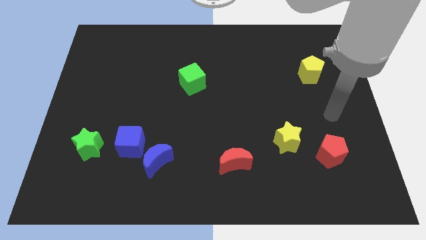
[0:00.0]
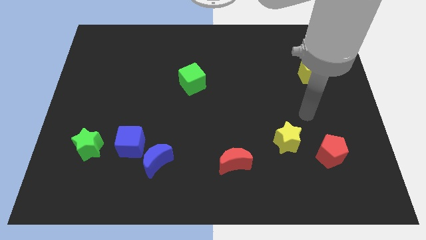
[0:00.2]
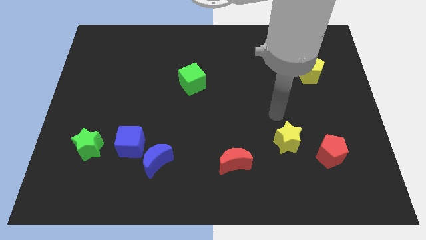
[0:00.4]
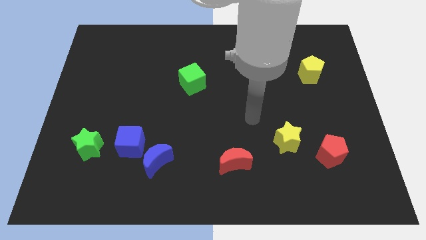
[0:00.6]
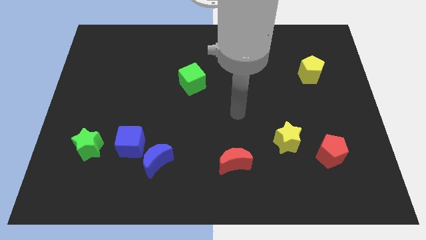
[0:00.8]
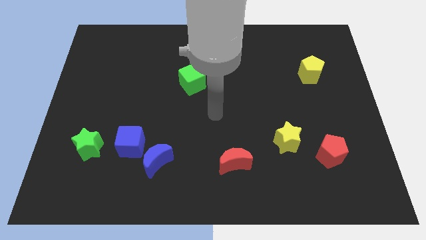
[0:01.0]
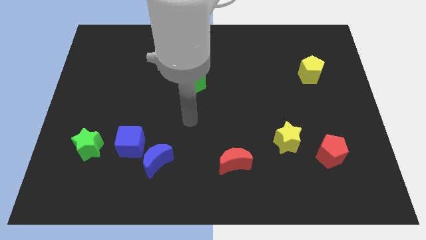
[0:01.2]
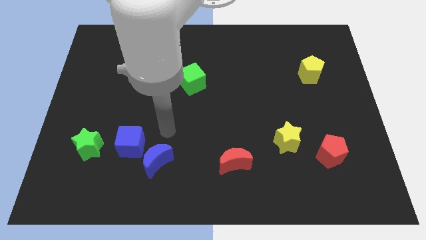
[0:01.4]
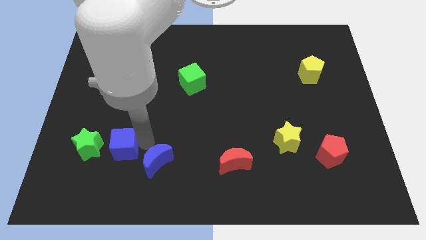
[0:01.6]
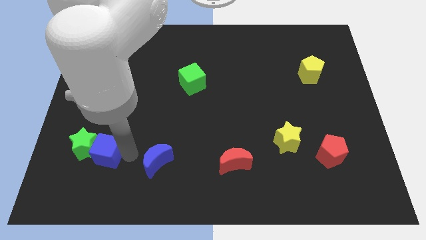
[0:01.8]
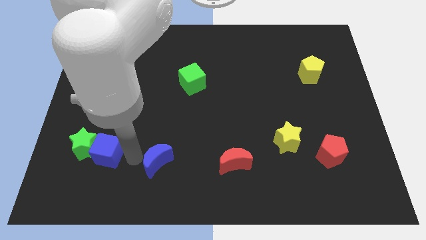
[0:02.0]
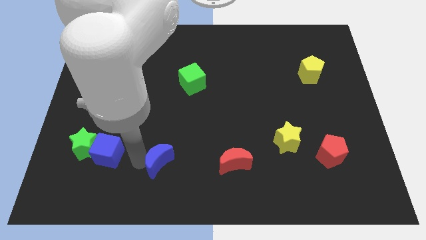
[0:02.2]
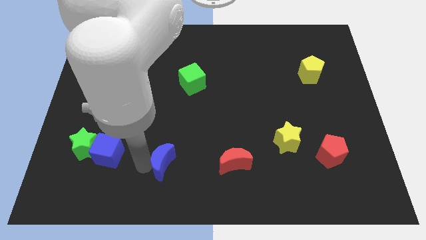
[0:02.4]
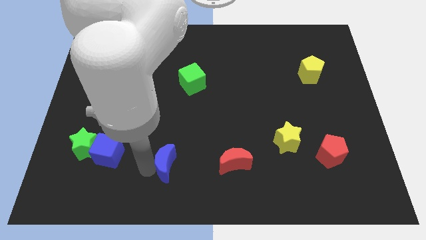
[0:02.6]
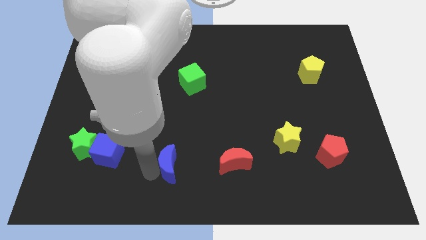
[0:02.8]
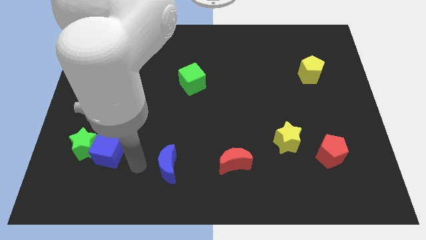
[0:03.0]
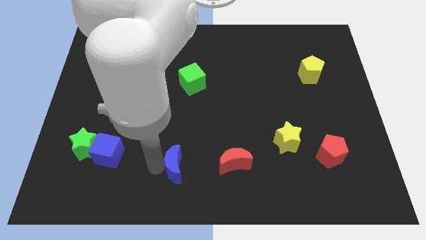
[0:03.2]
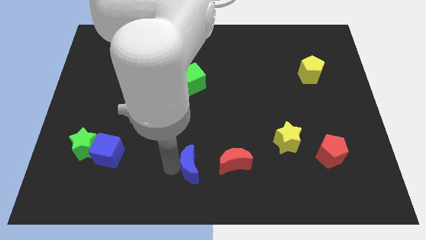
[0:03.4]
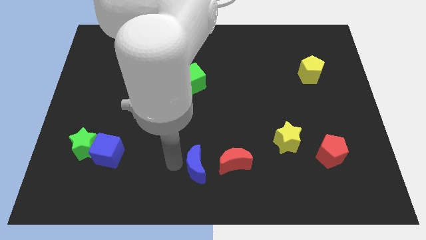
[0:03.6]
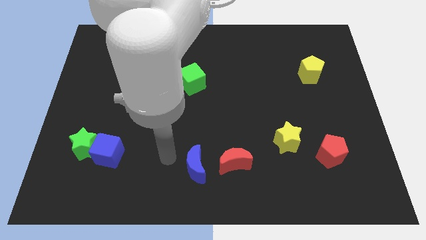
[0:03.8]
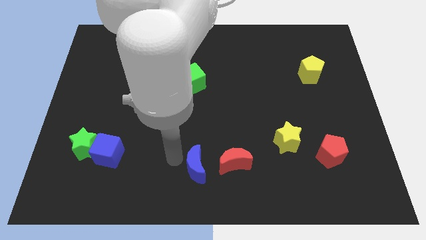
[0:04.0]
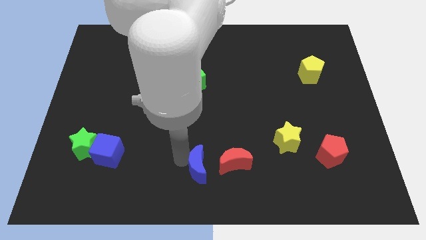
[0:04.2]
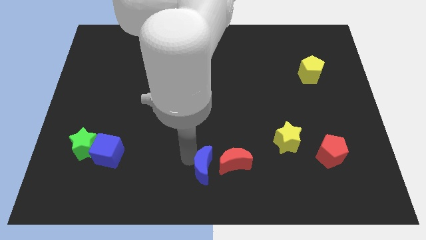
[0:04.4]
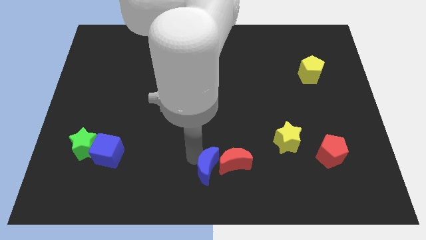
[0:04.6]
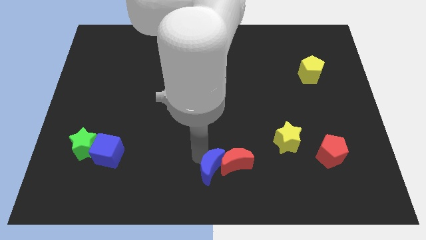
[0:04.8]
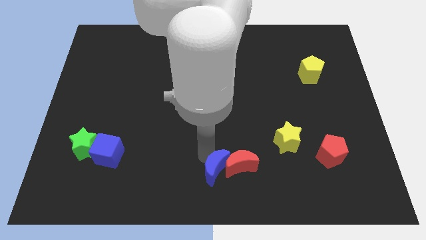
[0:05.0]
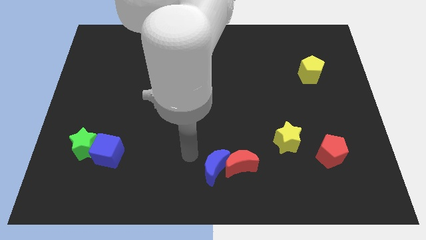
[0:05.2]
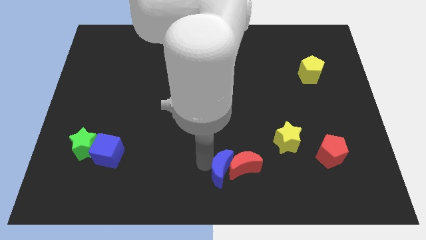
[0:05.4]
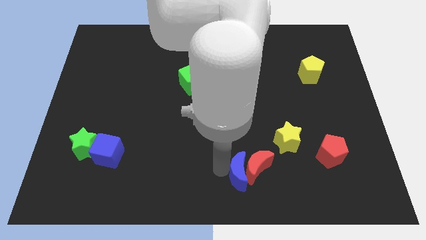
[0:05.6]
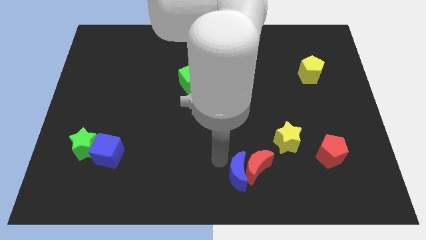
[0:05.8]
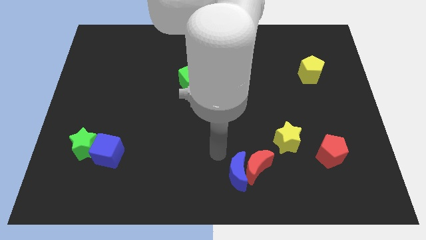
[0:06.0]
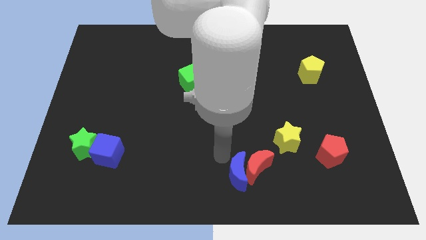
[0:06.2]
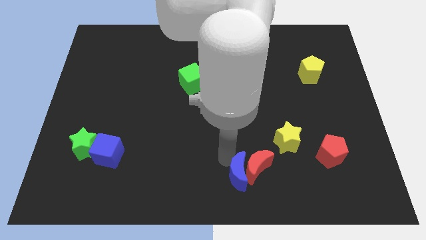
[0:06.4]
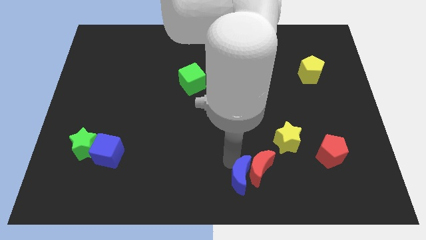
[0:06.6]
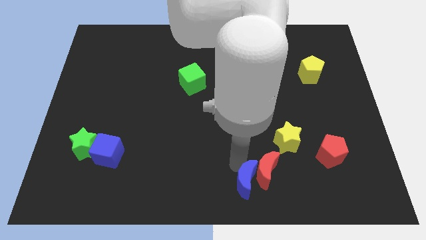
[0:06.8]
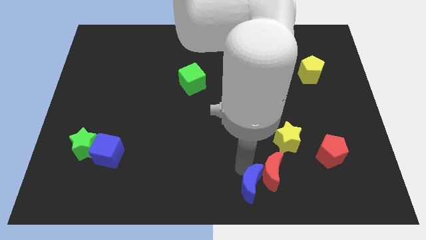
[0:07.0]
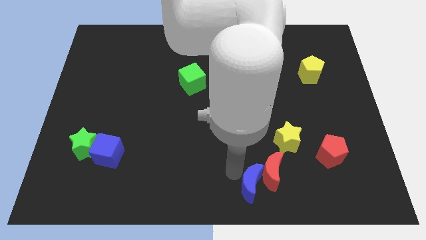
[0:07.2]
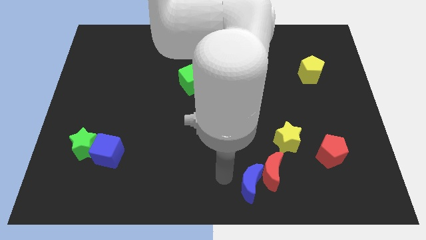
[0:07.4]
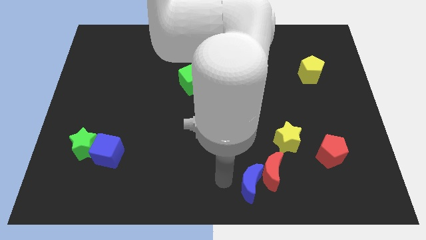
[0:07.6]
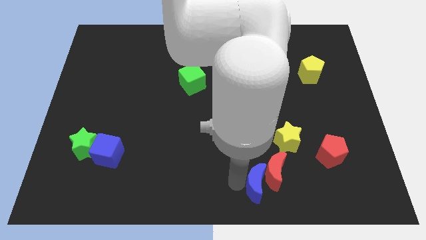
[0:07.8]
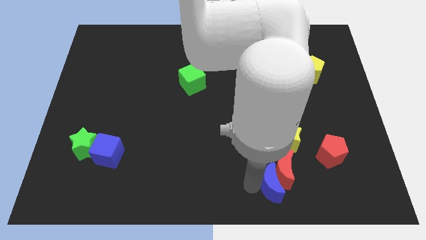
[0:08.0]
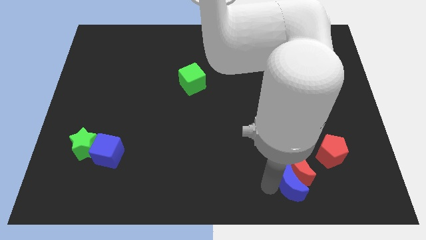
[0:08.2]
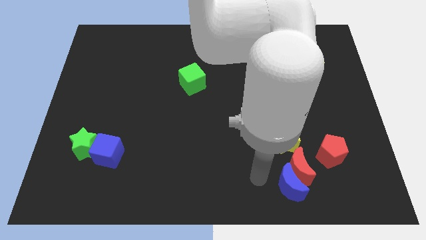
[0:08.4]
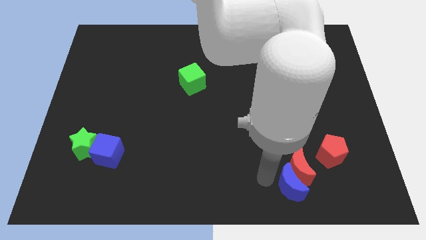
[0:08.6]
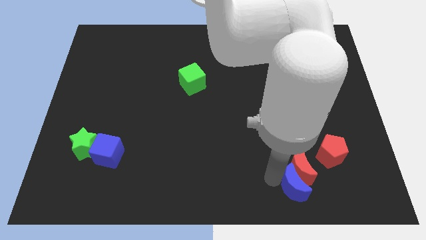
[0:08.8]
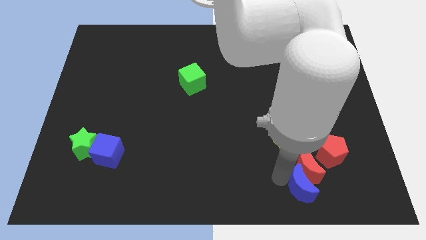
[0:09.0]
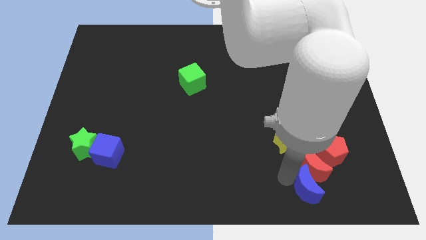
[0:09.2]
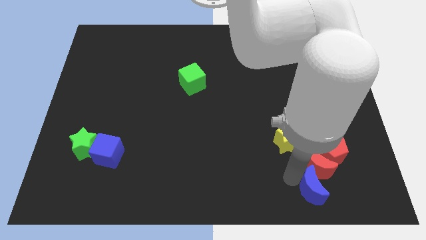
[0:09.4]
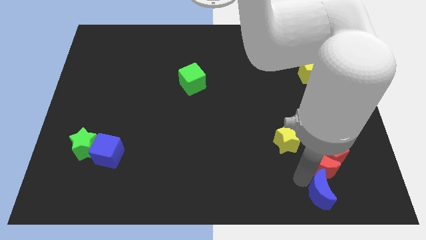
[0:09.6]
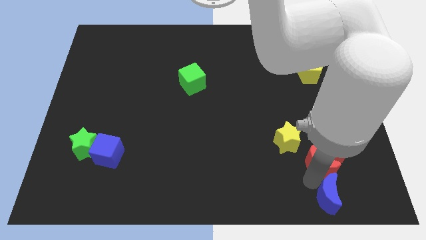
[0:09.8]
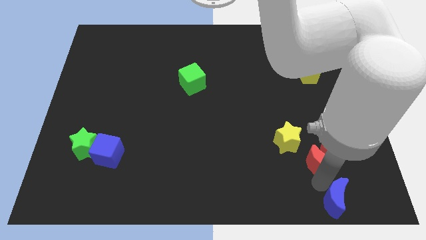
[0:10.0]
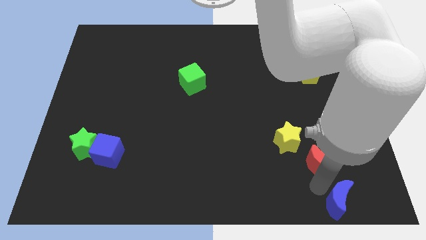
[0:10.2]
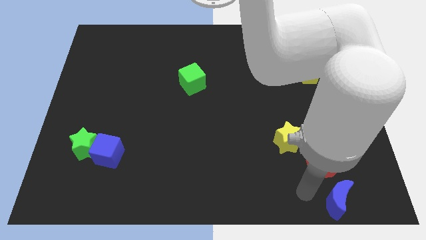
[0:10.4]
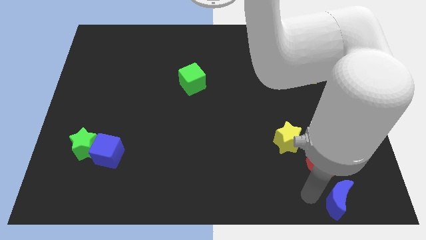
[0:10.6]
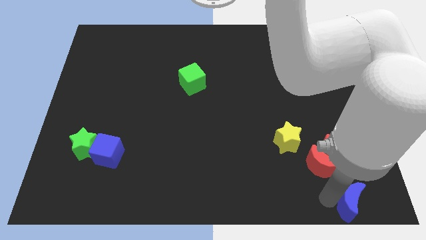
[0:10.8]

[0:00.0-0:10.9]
slide the blue moon to the bottom right corner

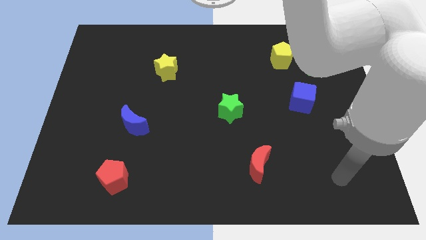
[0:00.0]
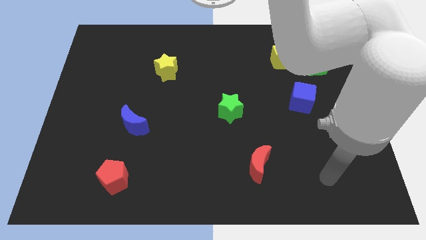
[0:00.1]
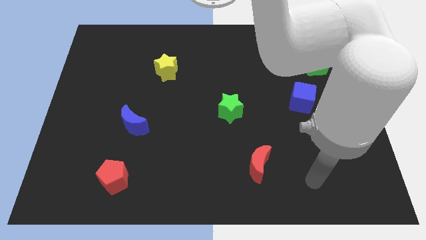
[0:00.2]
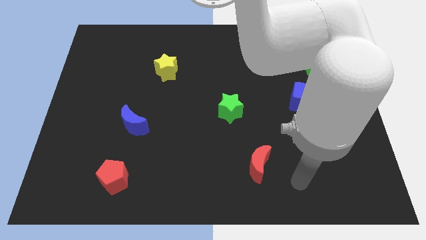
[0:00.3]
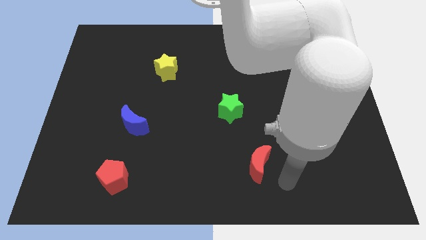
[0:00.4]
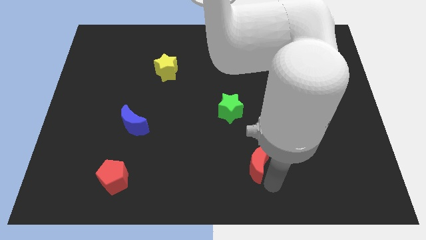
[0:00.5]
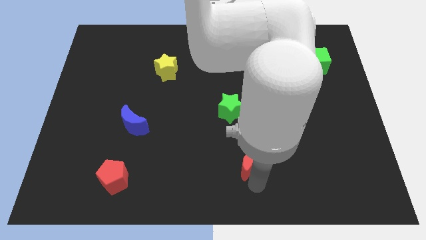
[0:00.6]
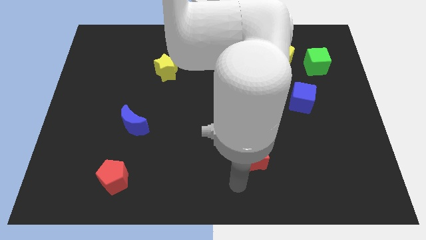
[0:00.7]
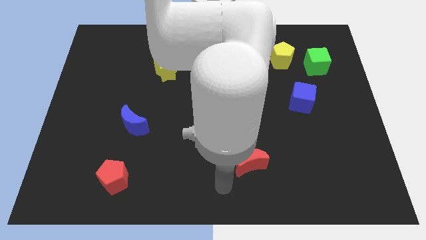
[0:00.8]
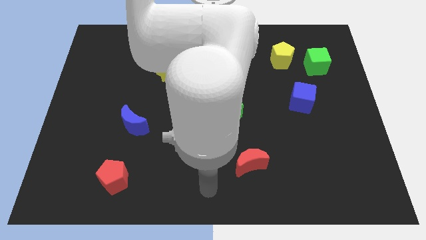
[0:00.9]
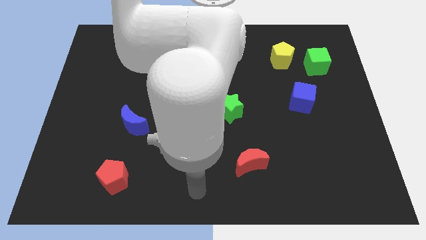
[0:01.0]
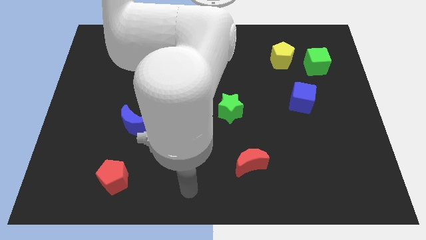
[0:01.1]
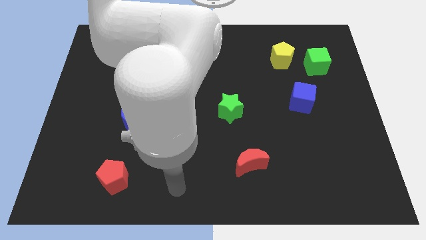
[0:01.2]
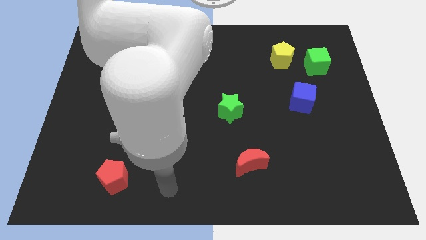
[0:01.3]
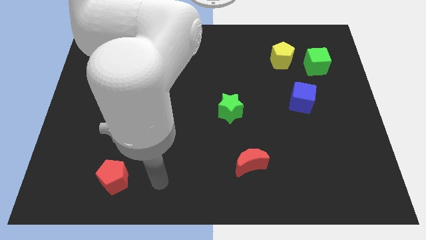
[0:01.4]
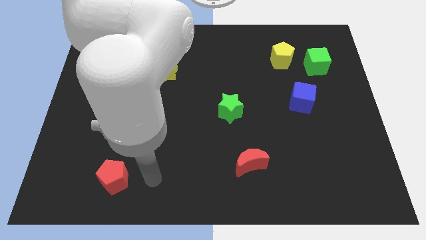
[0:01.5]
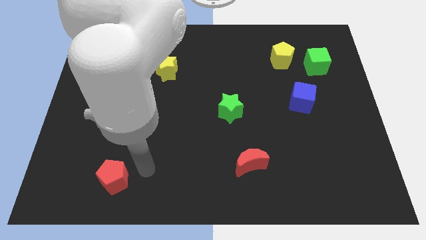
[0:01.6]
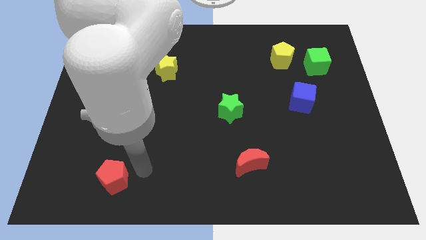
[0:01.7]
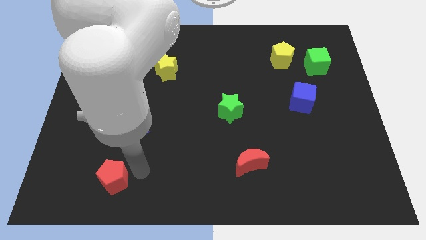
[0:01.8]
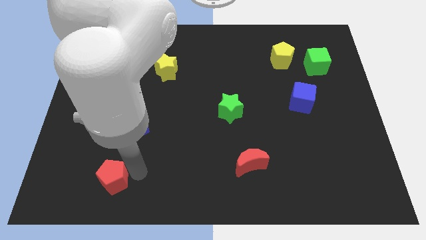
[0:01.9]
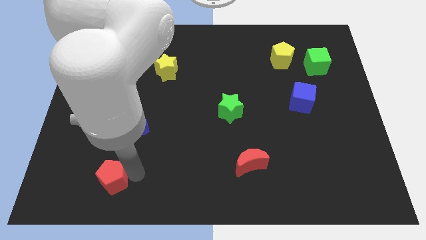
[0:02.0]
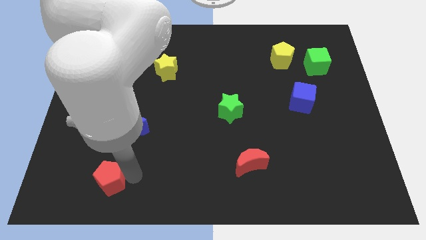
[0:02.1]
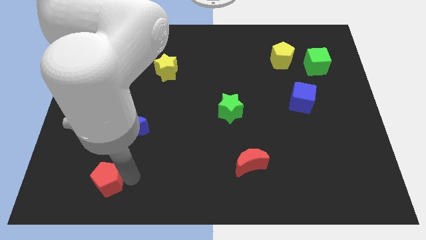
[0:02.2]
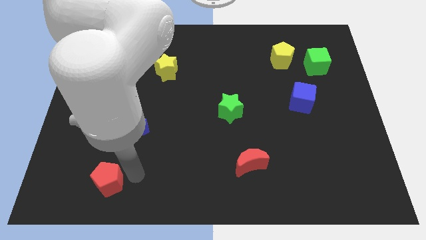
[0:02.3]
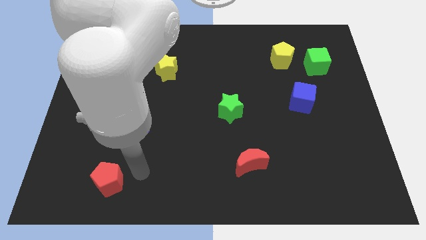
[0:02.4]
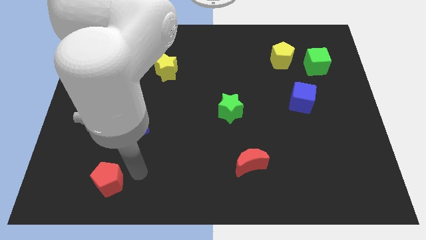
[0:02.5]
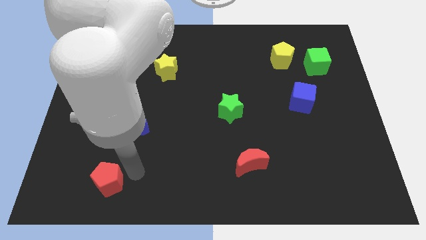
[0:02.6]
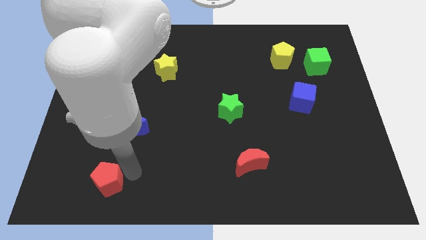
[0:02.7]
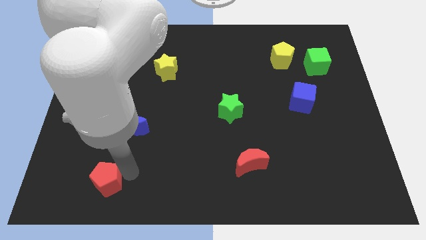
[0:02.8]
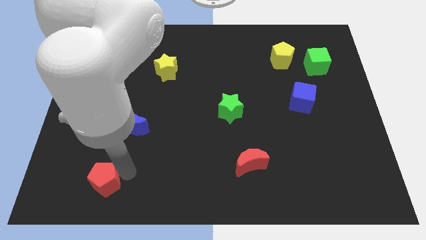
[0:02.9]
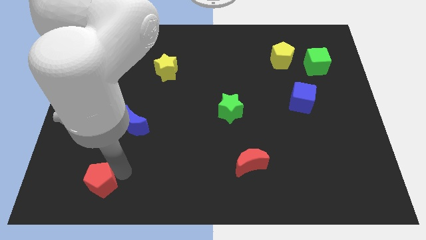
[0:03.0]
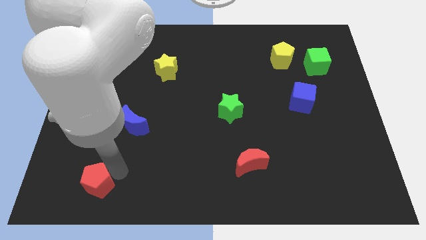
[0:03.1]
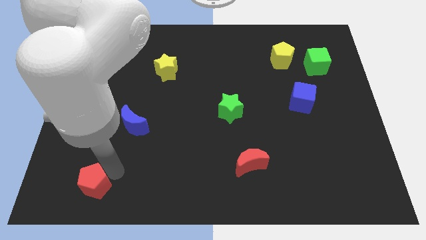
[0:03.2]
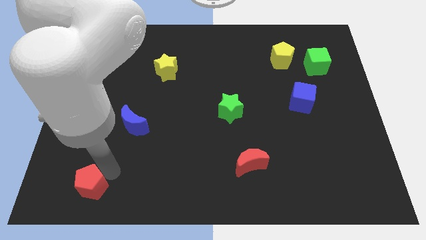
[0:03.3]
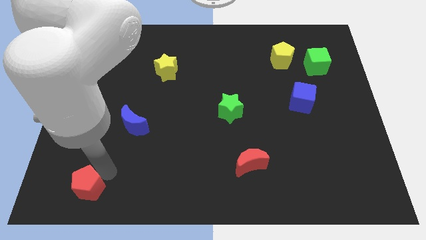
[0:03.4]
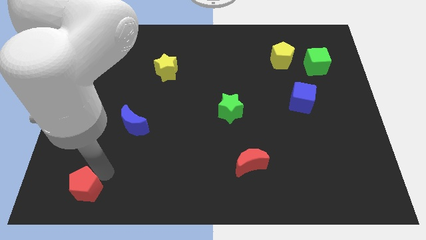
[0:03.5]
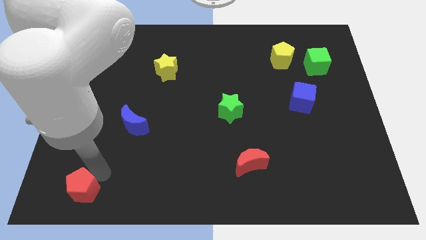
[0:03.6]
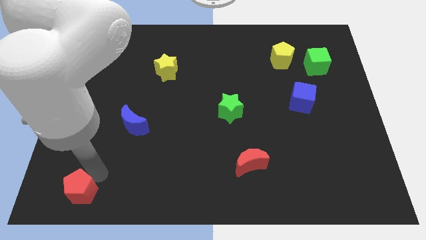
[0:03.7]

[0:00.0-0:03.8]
move the red pentagon to the lower left corner
